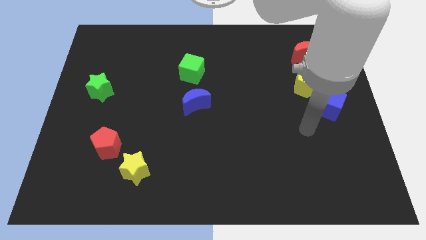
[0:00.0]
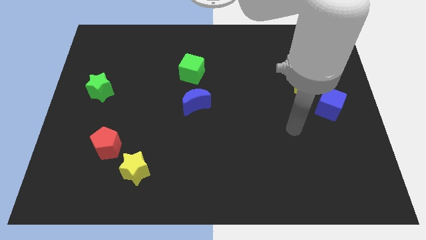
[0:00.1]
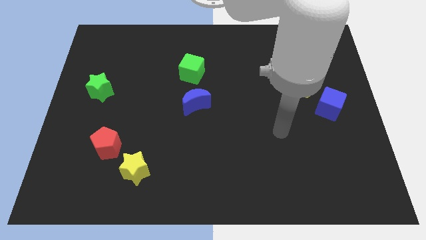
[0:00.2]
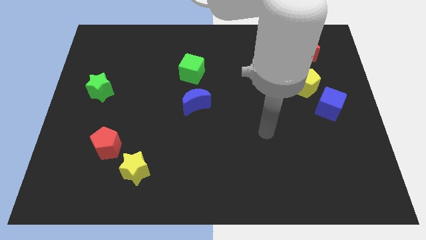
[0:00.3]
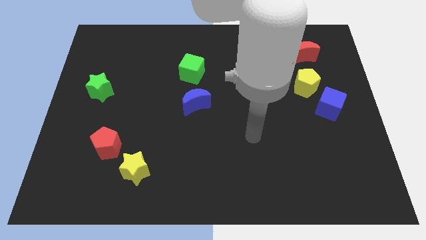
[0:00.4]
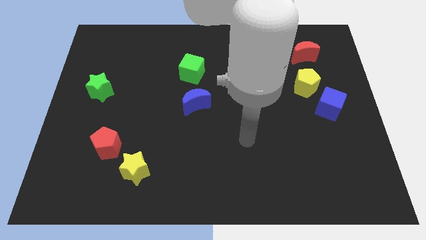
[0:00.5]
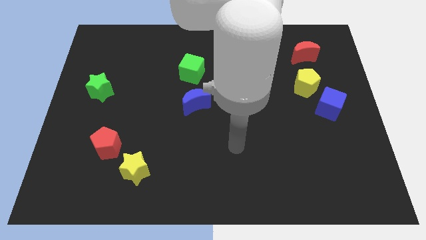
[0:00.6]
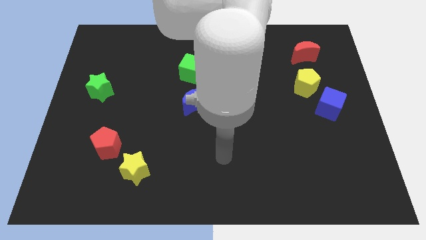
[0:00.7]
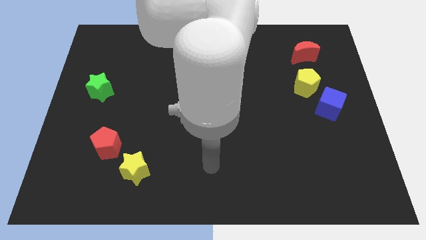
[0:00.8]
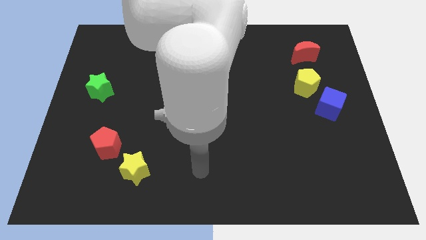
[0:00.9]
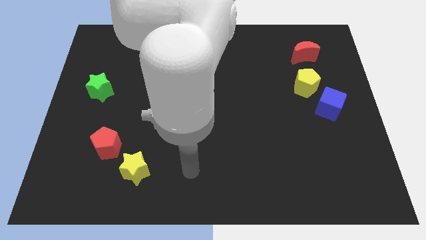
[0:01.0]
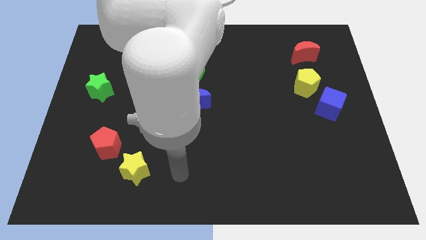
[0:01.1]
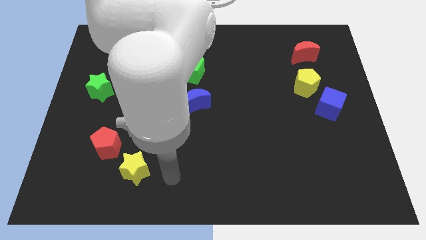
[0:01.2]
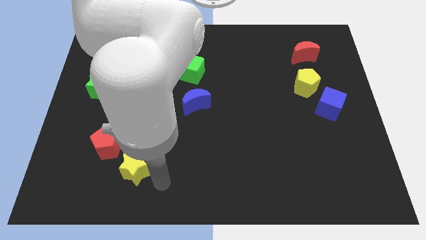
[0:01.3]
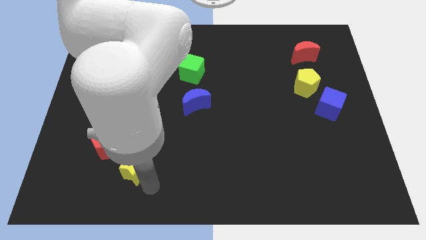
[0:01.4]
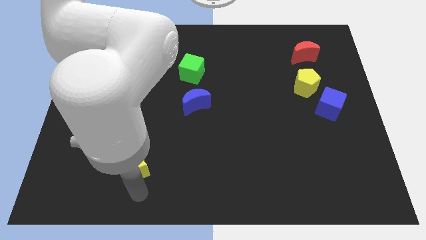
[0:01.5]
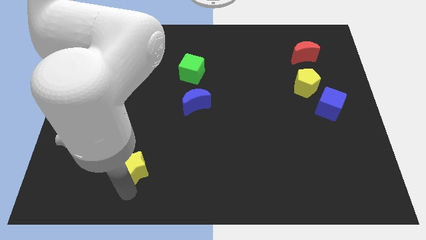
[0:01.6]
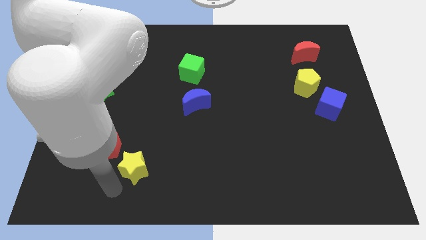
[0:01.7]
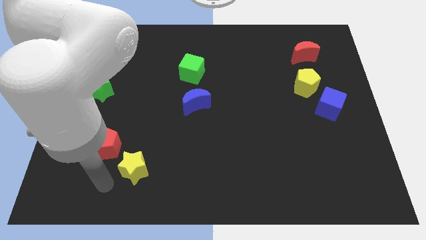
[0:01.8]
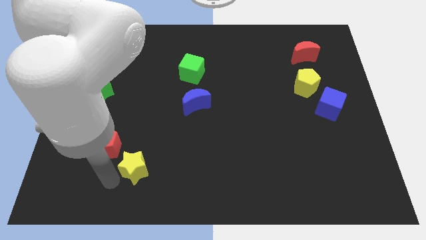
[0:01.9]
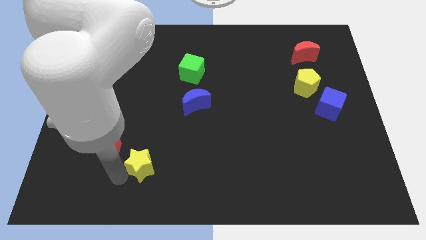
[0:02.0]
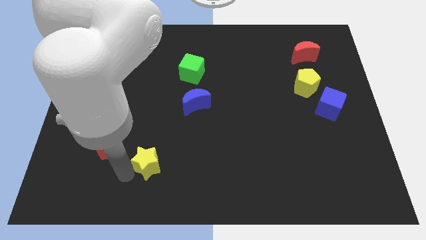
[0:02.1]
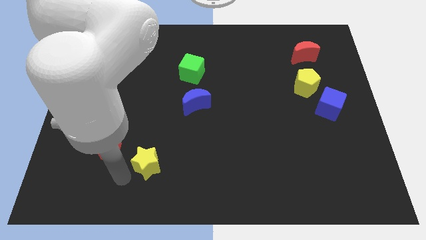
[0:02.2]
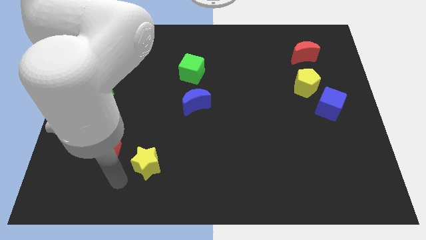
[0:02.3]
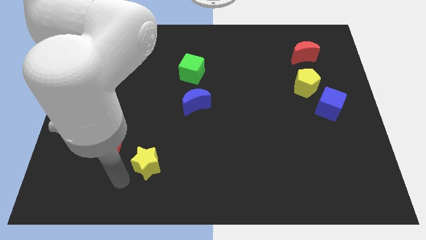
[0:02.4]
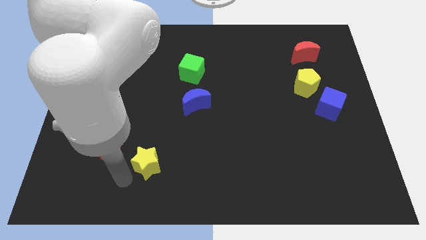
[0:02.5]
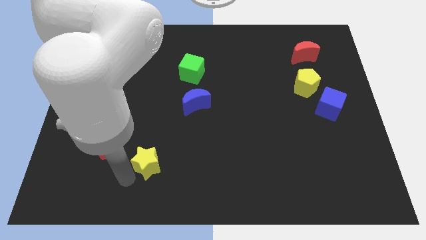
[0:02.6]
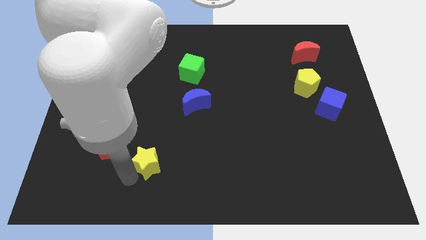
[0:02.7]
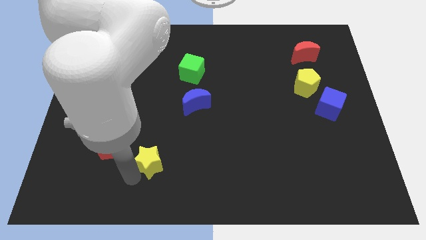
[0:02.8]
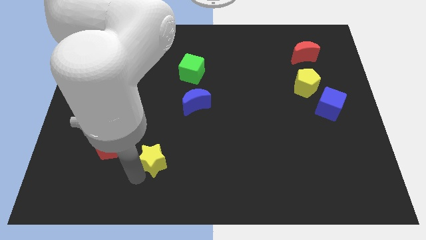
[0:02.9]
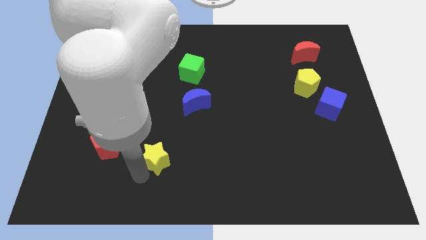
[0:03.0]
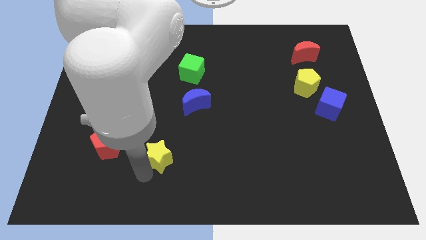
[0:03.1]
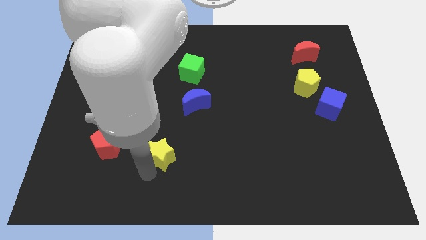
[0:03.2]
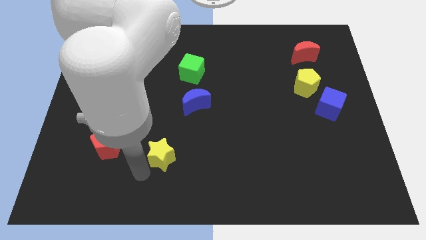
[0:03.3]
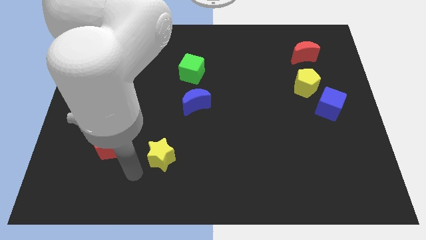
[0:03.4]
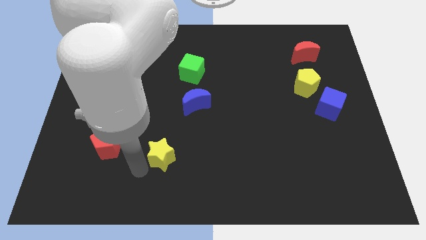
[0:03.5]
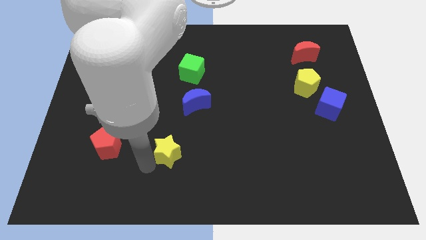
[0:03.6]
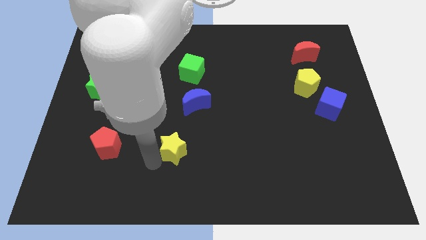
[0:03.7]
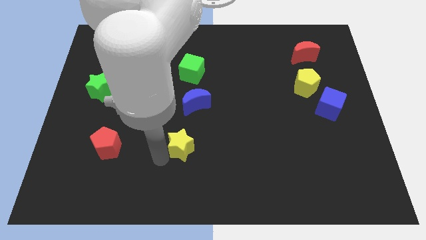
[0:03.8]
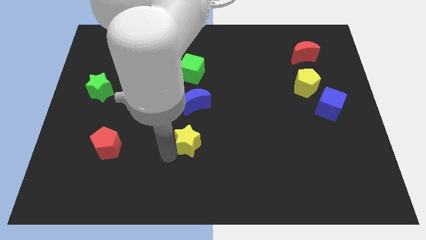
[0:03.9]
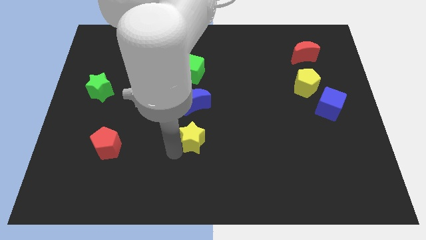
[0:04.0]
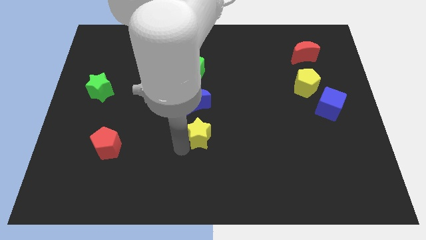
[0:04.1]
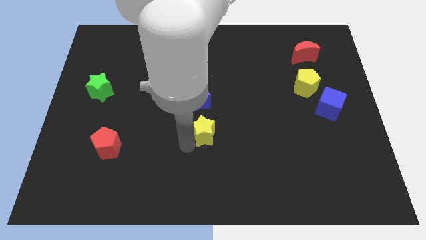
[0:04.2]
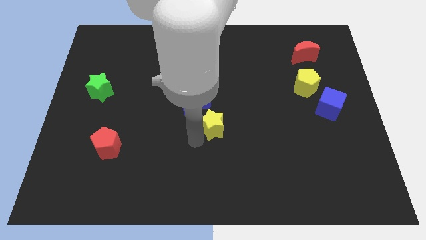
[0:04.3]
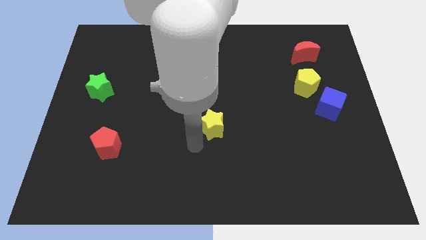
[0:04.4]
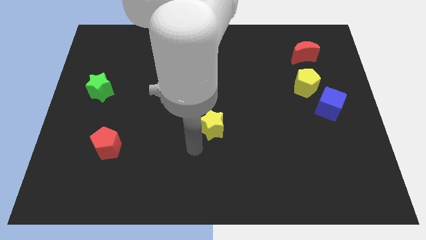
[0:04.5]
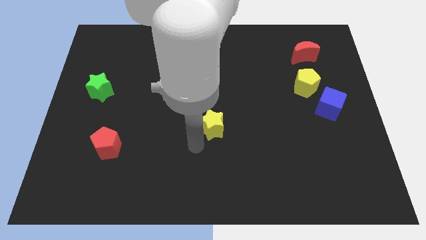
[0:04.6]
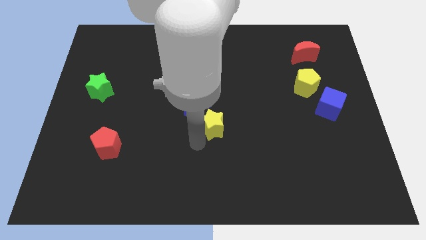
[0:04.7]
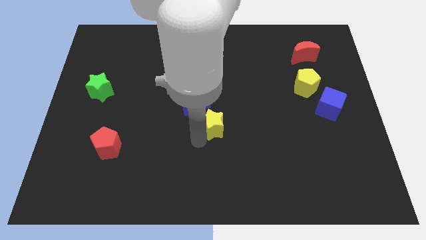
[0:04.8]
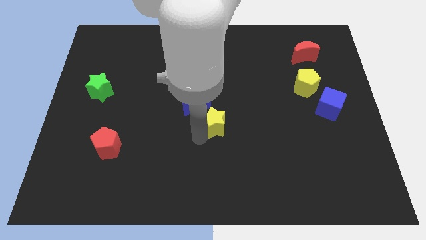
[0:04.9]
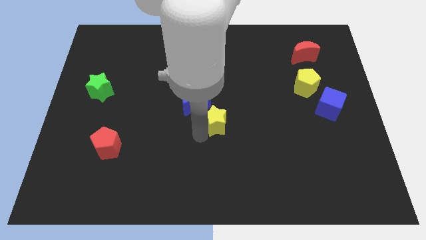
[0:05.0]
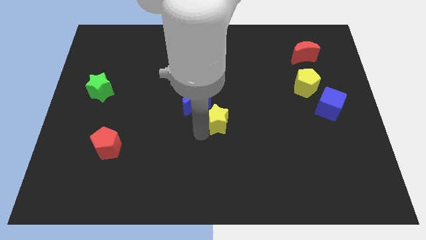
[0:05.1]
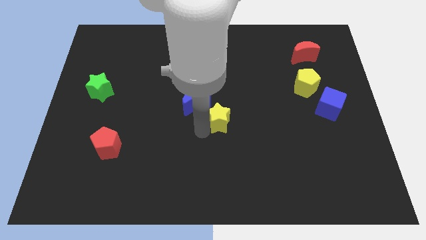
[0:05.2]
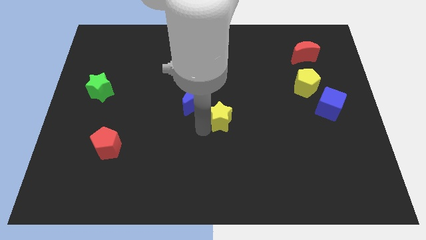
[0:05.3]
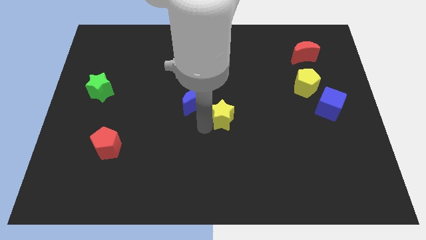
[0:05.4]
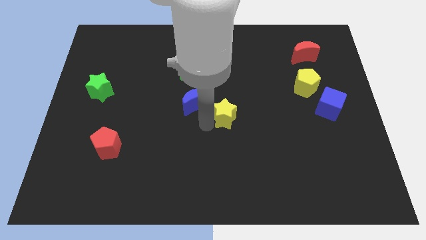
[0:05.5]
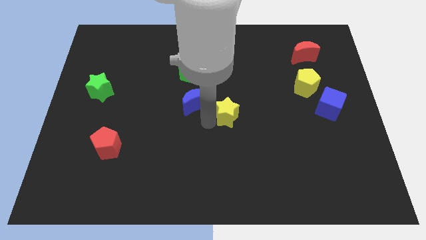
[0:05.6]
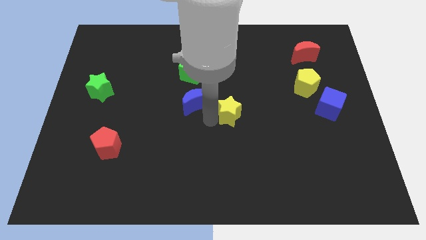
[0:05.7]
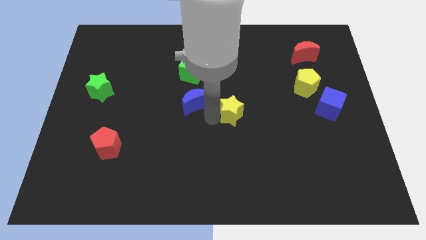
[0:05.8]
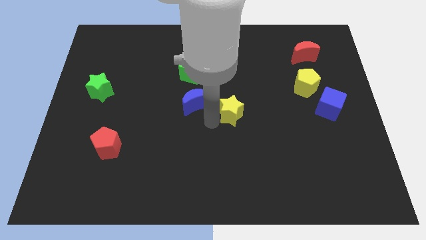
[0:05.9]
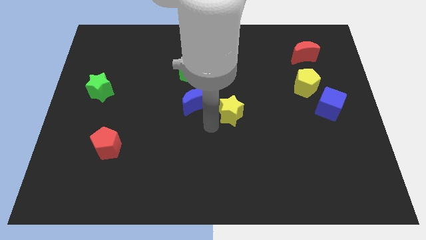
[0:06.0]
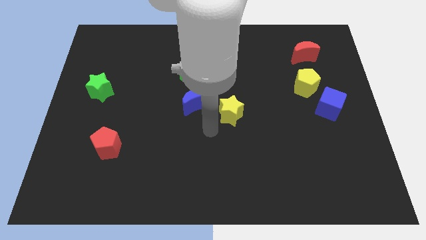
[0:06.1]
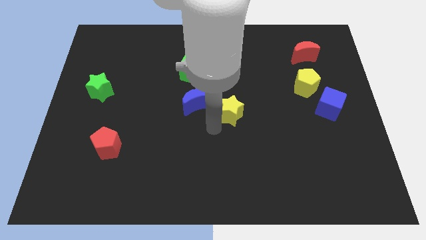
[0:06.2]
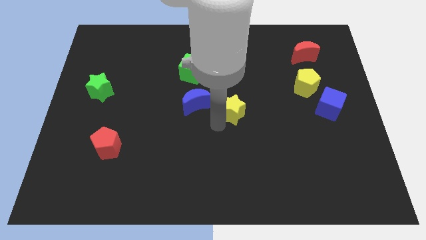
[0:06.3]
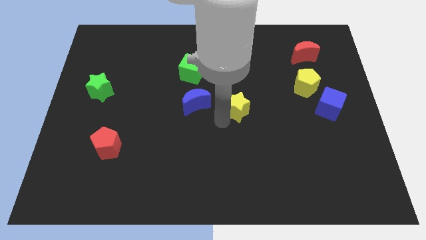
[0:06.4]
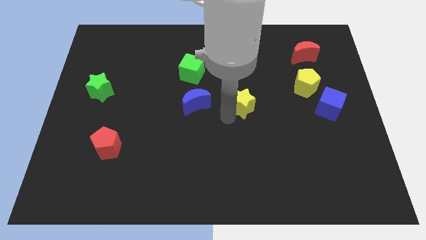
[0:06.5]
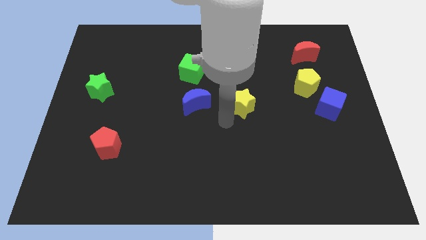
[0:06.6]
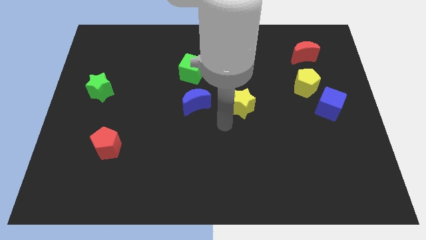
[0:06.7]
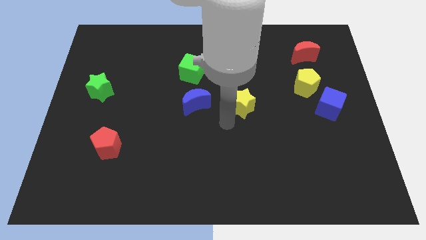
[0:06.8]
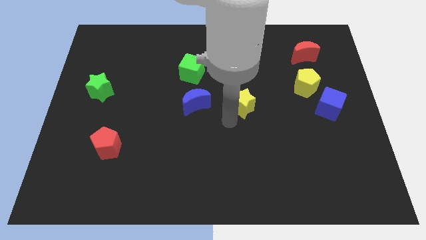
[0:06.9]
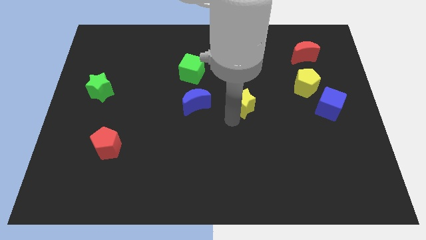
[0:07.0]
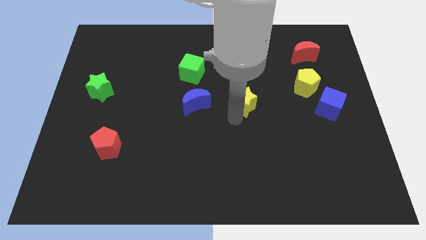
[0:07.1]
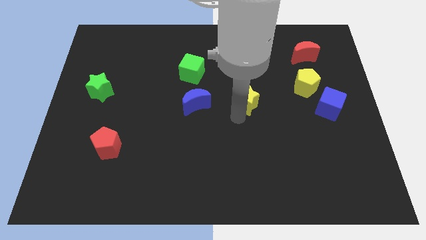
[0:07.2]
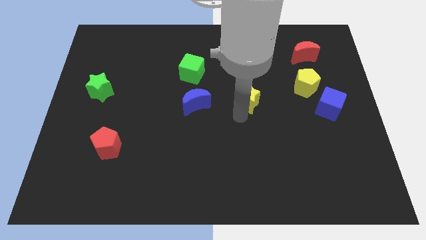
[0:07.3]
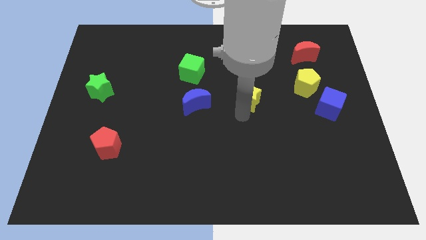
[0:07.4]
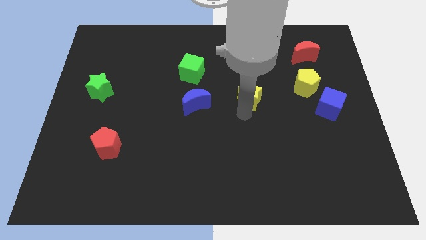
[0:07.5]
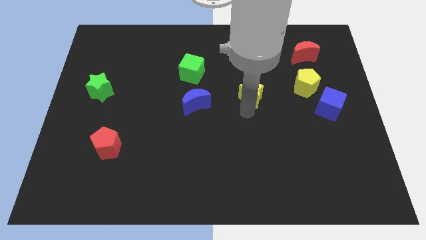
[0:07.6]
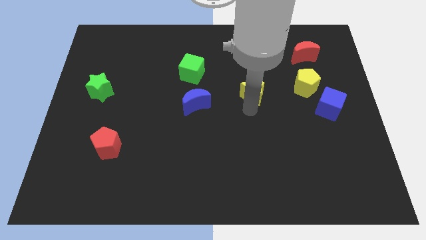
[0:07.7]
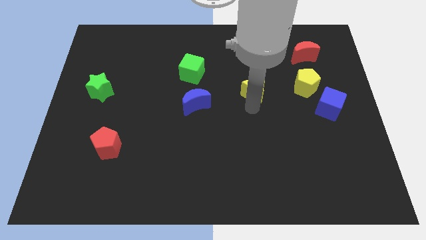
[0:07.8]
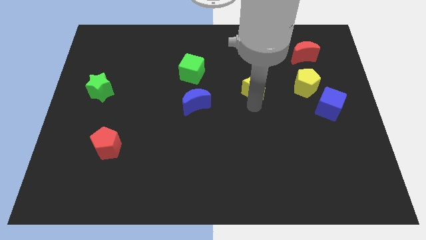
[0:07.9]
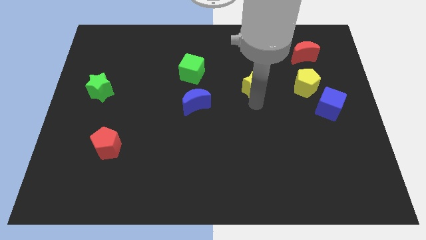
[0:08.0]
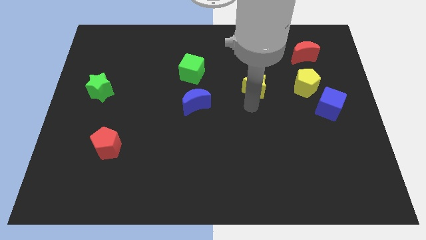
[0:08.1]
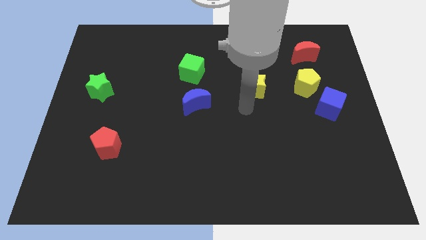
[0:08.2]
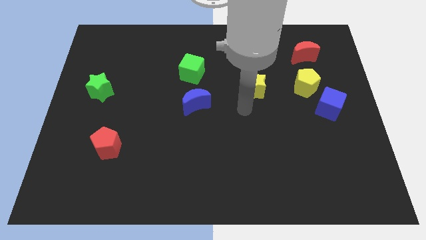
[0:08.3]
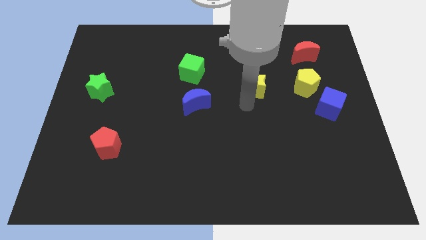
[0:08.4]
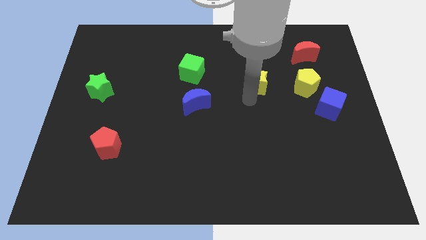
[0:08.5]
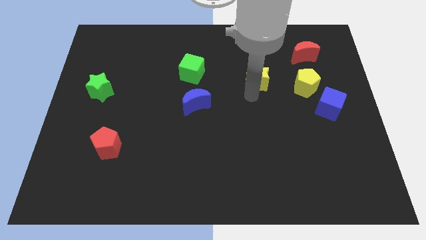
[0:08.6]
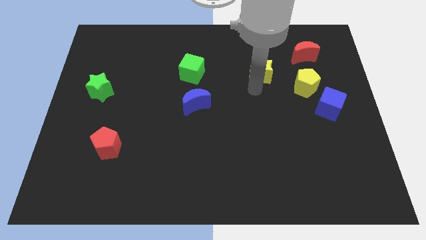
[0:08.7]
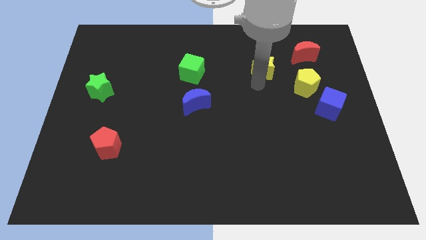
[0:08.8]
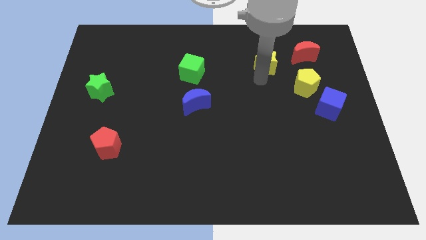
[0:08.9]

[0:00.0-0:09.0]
push the yellow star to the left side of the red moon
